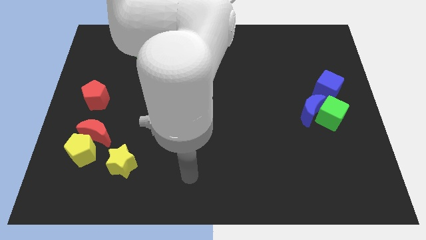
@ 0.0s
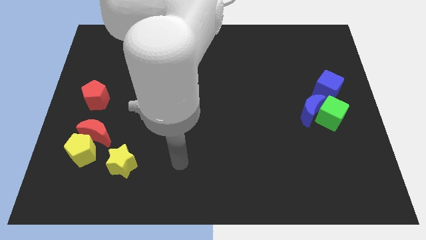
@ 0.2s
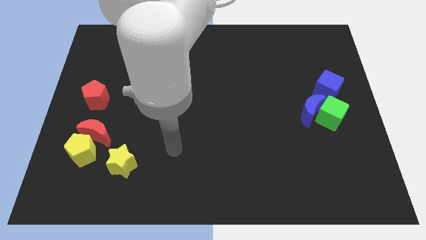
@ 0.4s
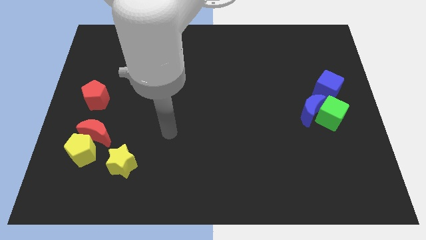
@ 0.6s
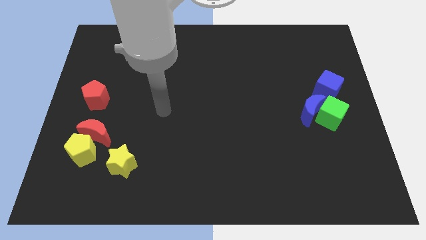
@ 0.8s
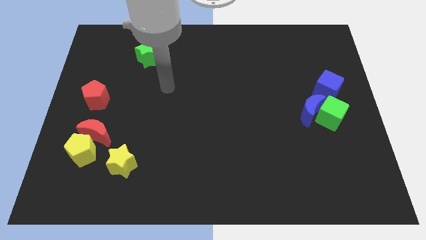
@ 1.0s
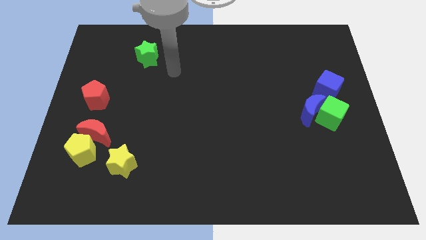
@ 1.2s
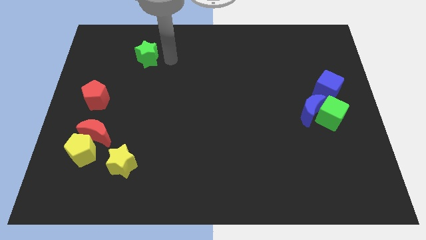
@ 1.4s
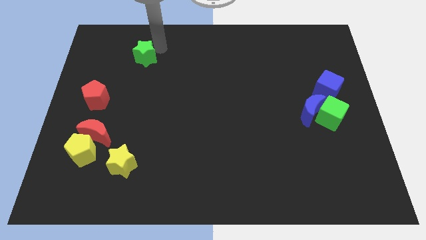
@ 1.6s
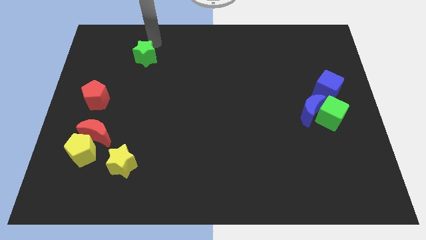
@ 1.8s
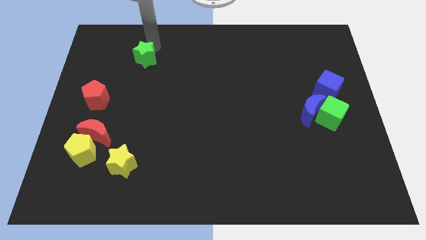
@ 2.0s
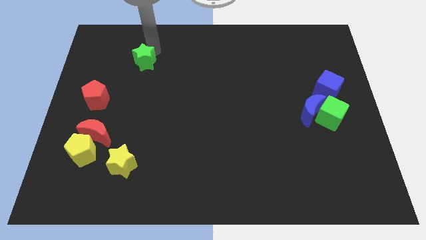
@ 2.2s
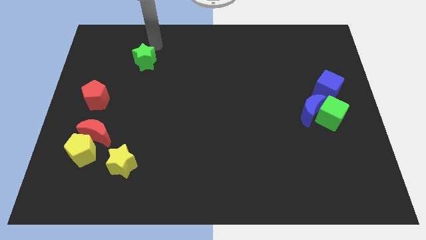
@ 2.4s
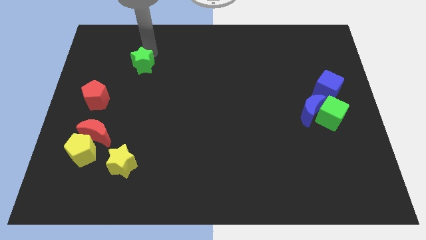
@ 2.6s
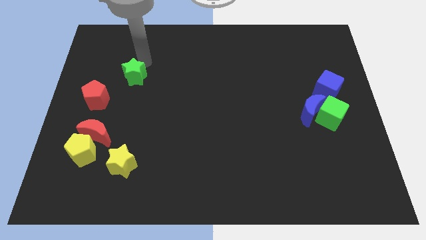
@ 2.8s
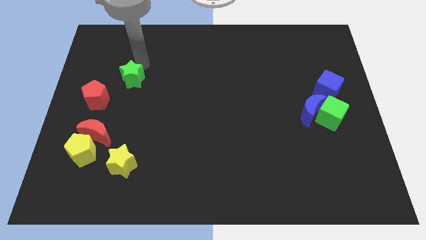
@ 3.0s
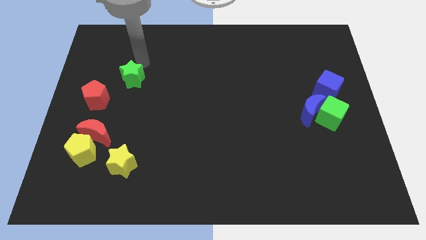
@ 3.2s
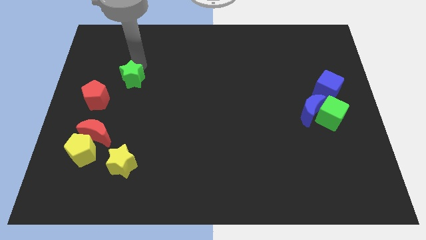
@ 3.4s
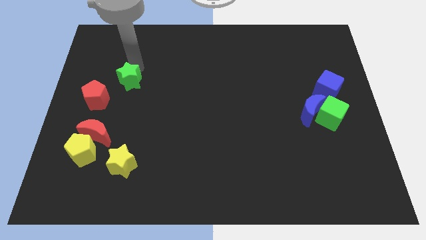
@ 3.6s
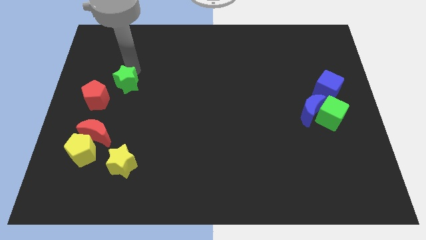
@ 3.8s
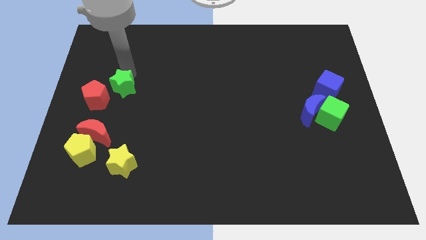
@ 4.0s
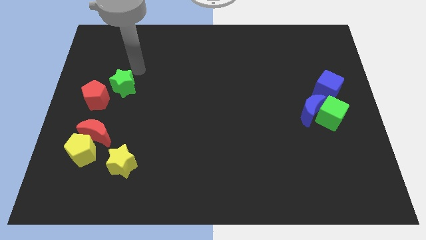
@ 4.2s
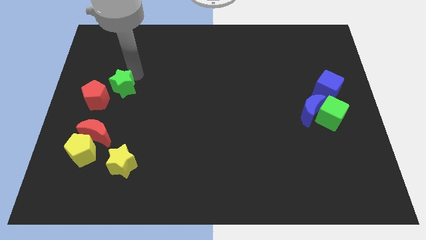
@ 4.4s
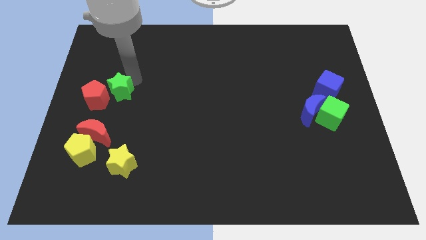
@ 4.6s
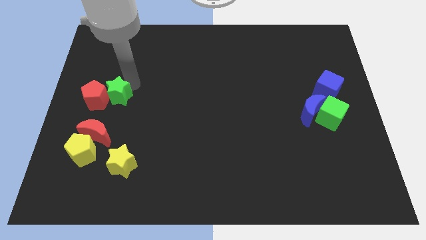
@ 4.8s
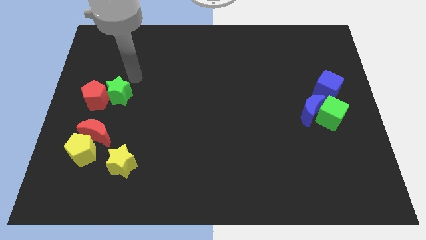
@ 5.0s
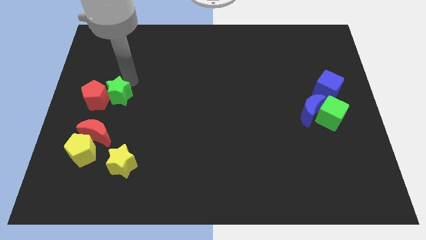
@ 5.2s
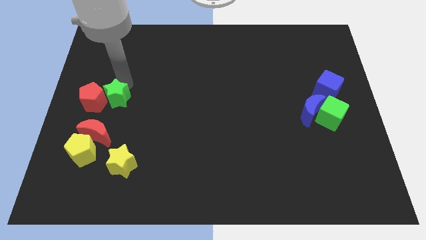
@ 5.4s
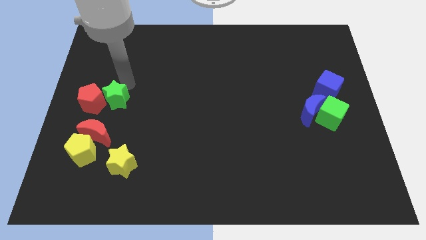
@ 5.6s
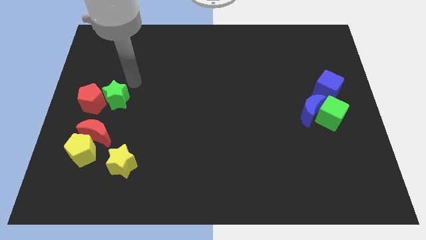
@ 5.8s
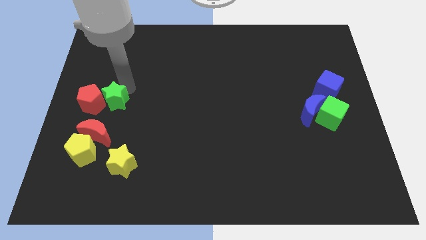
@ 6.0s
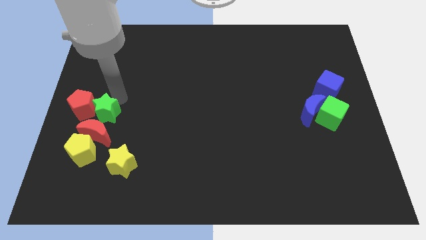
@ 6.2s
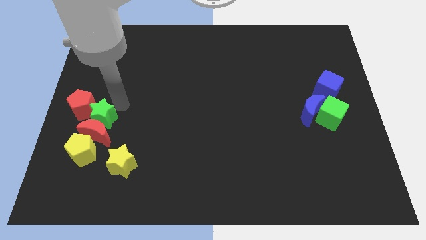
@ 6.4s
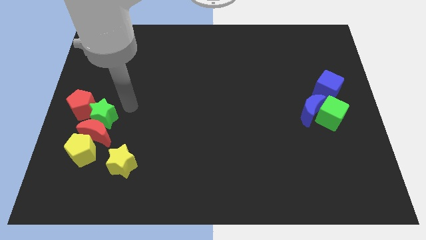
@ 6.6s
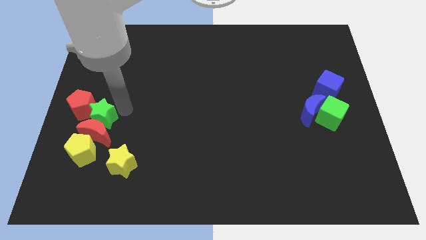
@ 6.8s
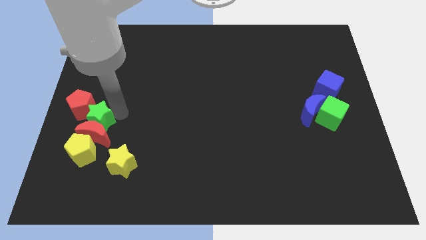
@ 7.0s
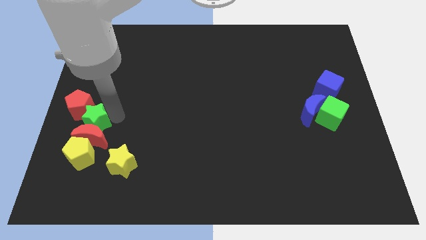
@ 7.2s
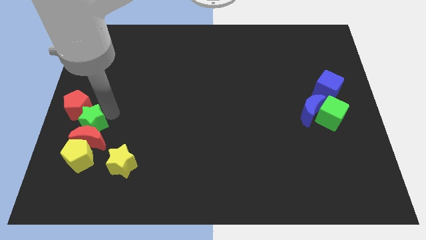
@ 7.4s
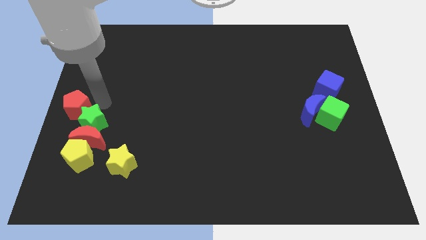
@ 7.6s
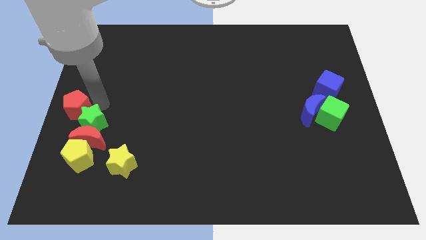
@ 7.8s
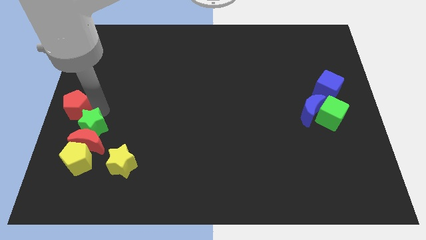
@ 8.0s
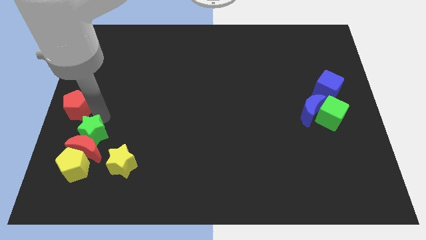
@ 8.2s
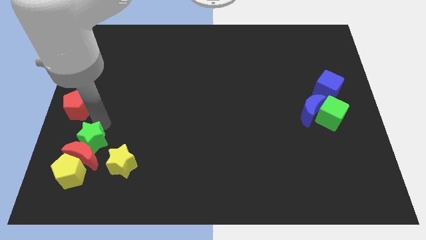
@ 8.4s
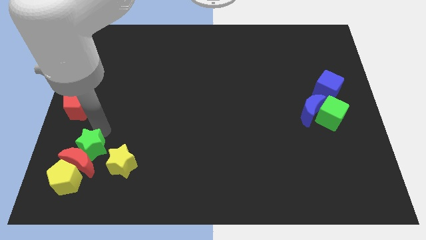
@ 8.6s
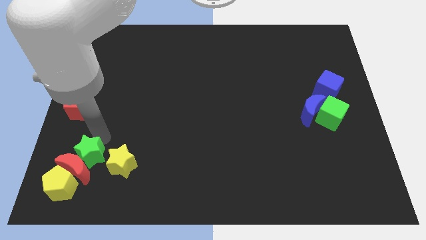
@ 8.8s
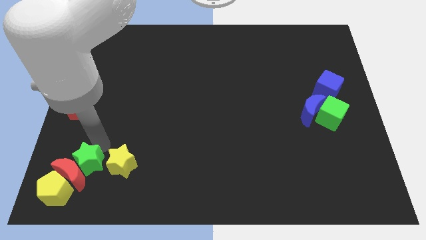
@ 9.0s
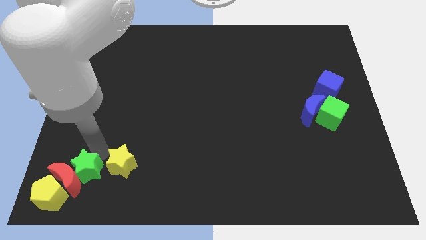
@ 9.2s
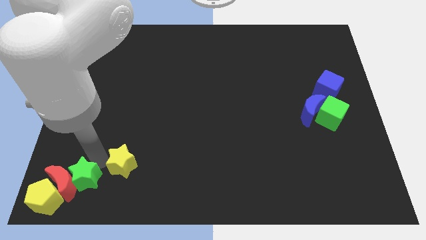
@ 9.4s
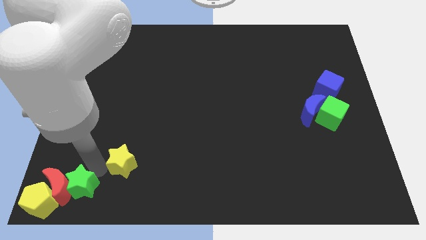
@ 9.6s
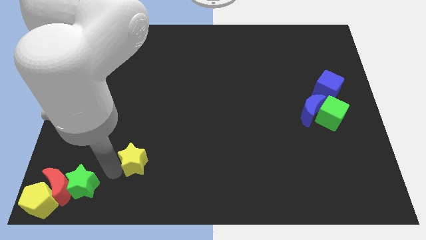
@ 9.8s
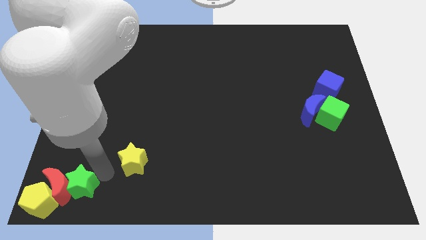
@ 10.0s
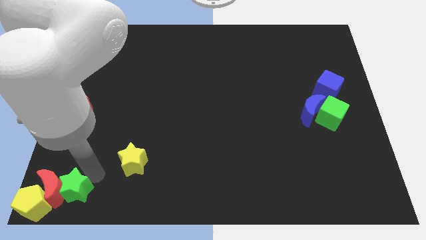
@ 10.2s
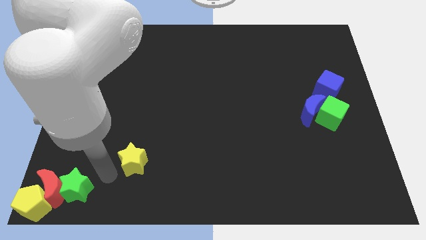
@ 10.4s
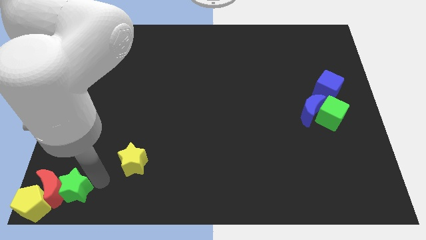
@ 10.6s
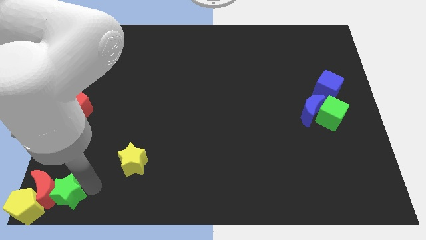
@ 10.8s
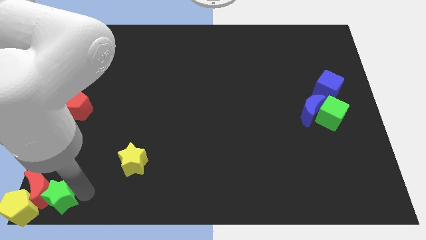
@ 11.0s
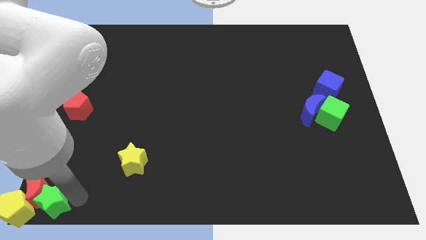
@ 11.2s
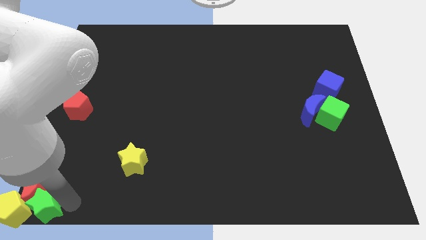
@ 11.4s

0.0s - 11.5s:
move the green star close to the yellow pentagon
